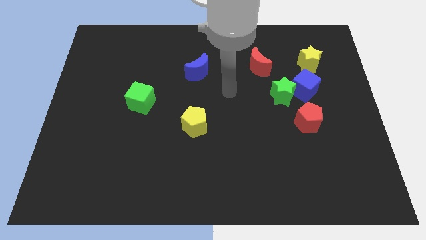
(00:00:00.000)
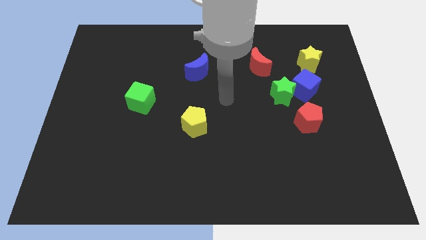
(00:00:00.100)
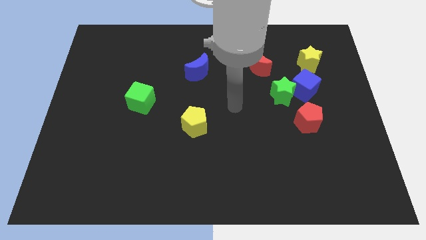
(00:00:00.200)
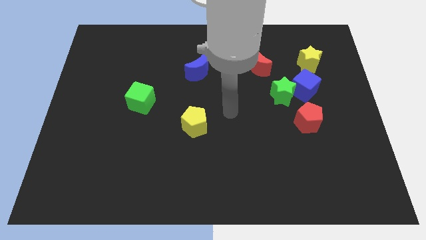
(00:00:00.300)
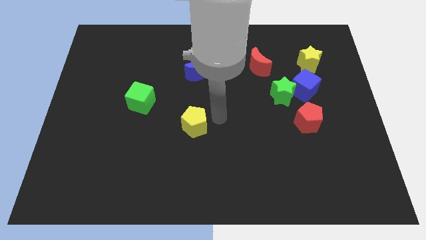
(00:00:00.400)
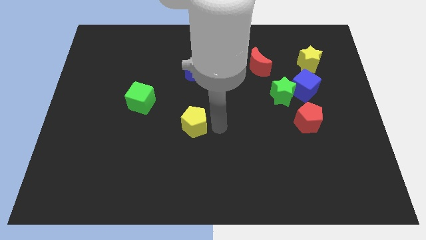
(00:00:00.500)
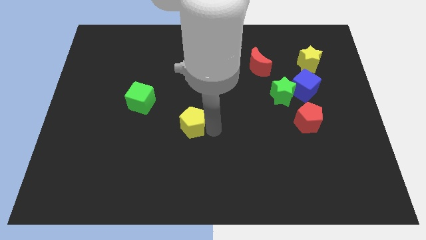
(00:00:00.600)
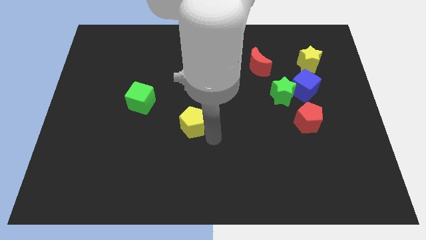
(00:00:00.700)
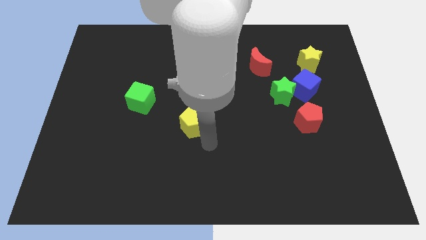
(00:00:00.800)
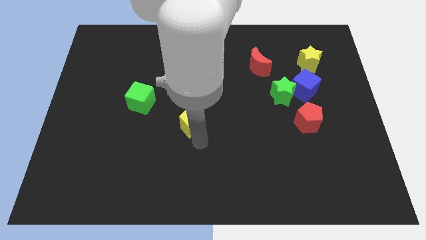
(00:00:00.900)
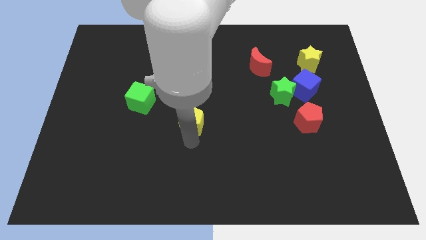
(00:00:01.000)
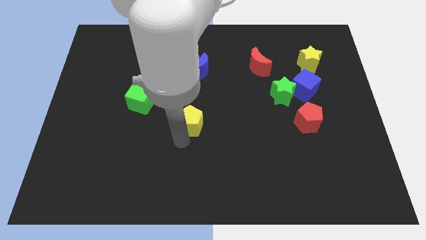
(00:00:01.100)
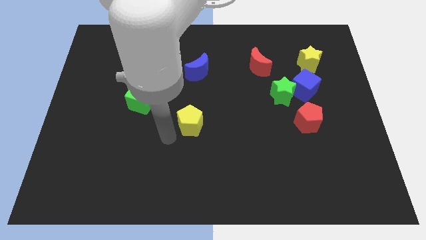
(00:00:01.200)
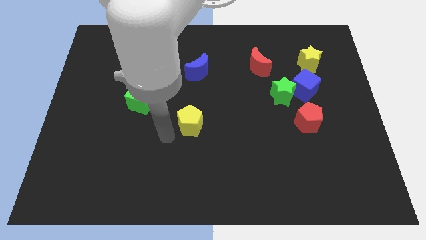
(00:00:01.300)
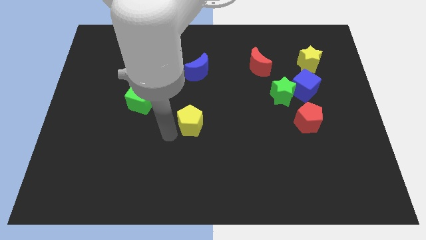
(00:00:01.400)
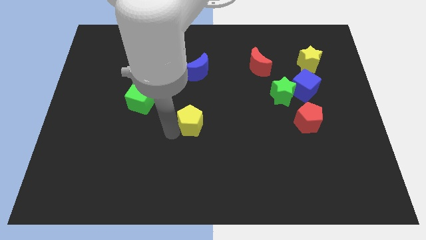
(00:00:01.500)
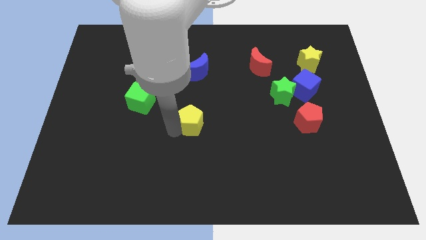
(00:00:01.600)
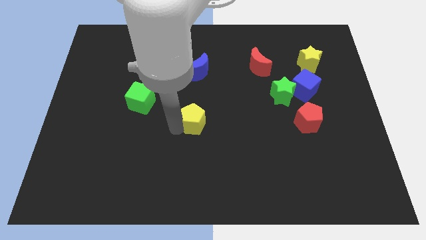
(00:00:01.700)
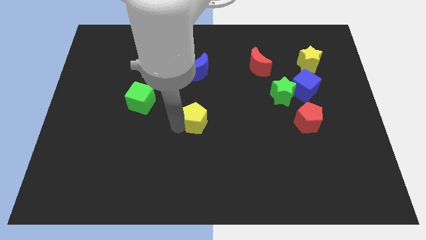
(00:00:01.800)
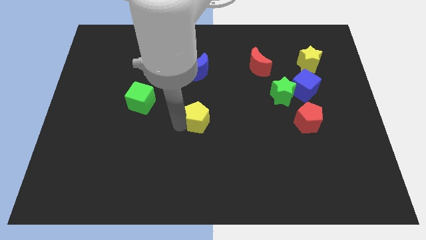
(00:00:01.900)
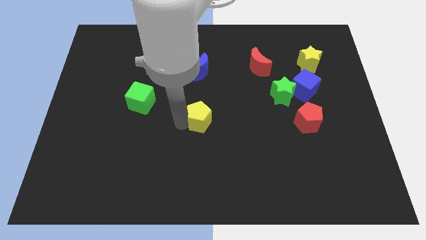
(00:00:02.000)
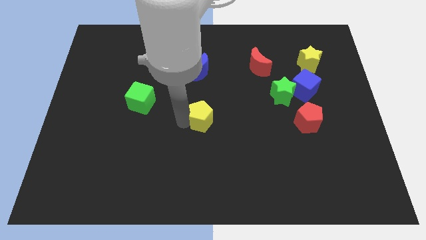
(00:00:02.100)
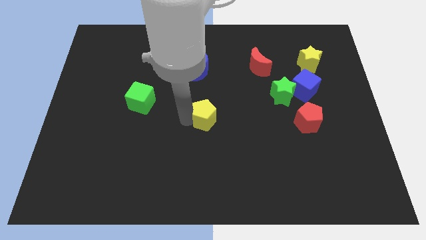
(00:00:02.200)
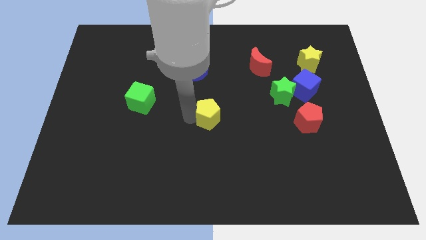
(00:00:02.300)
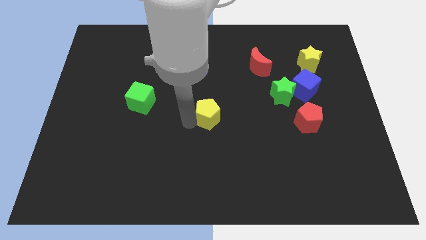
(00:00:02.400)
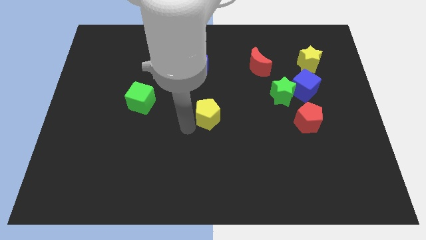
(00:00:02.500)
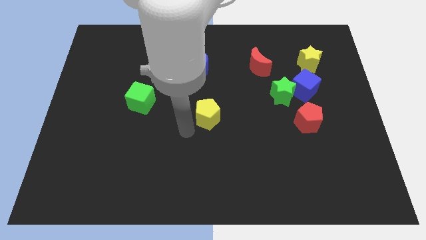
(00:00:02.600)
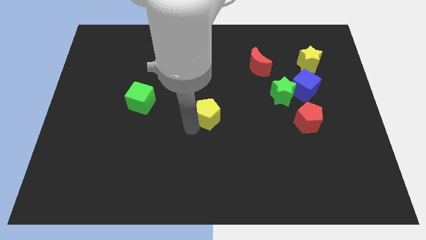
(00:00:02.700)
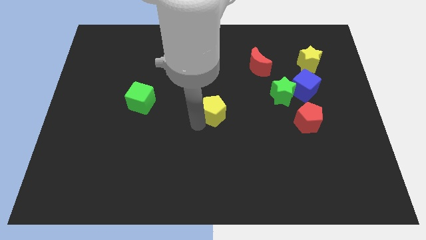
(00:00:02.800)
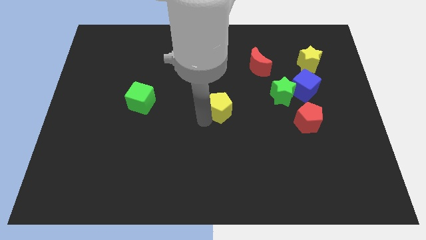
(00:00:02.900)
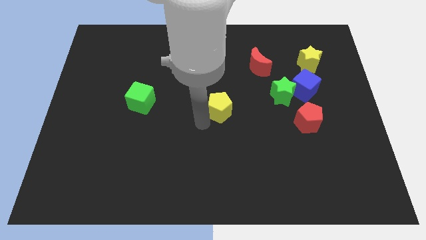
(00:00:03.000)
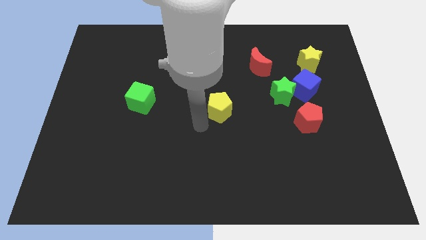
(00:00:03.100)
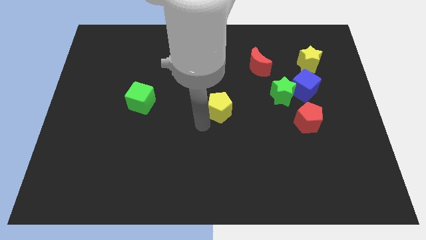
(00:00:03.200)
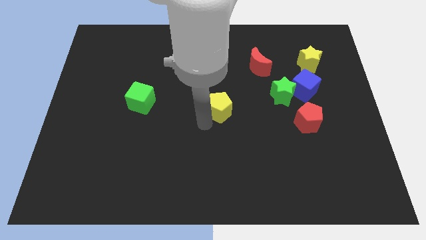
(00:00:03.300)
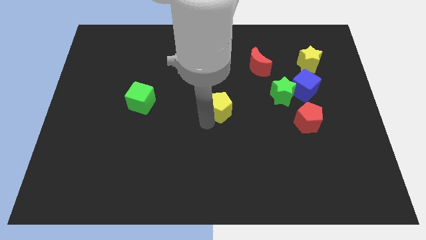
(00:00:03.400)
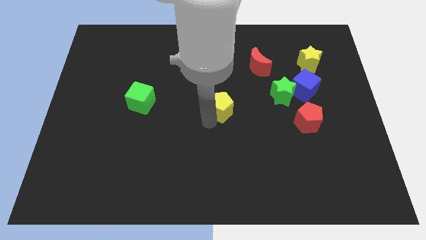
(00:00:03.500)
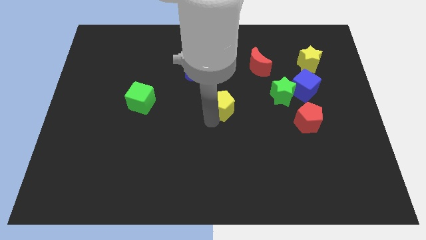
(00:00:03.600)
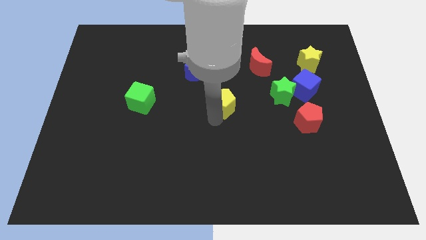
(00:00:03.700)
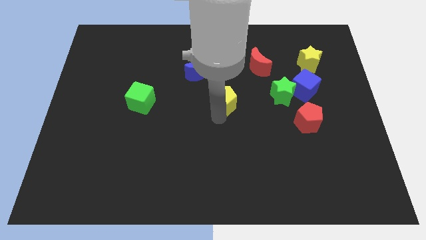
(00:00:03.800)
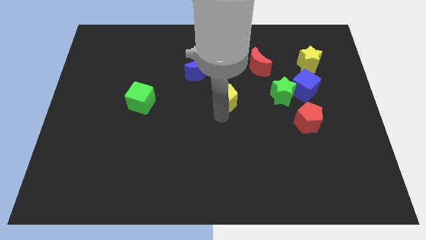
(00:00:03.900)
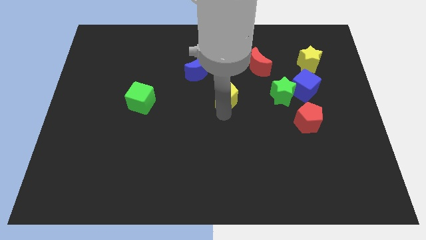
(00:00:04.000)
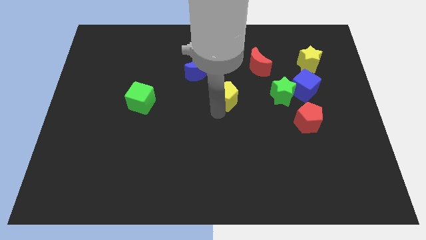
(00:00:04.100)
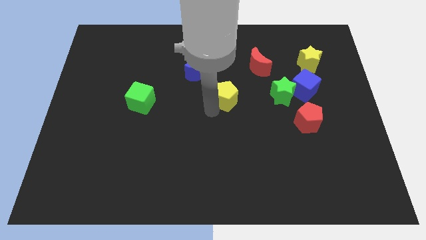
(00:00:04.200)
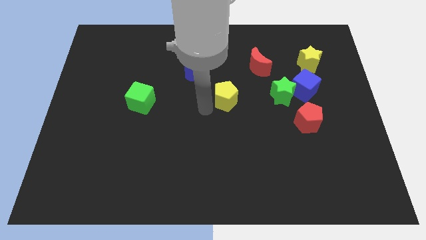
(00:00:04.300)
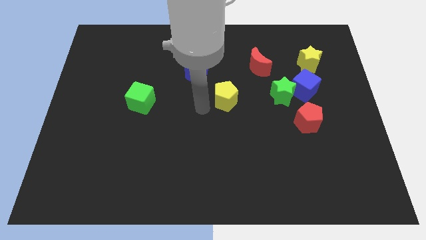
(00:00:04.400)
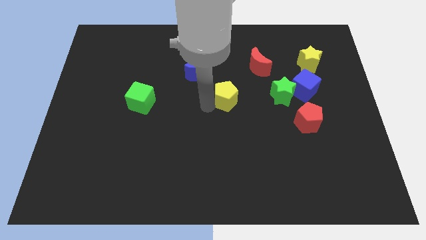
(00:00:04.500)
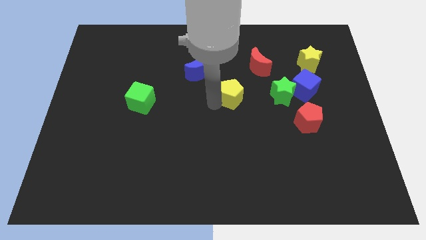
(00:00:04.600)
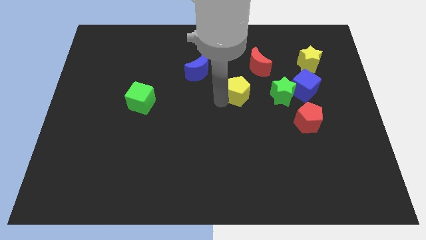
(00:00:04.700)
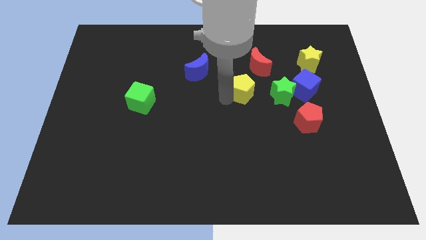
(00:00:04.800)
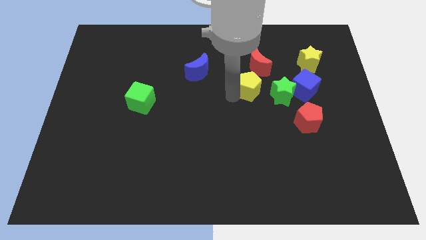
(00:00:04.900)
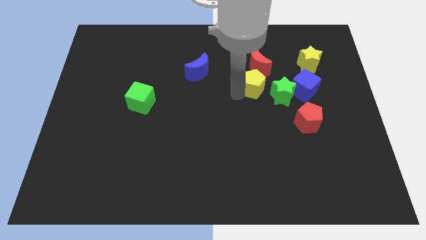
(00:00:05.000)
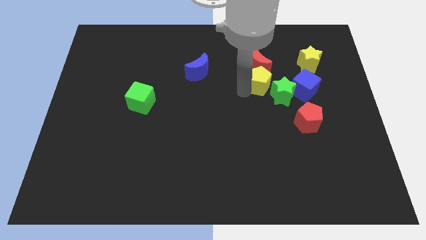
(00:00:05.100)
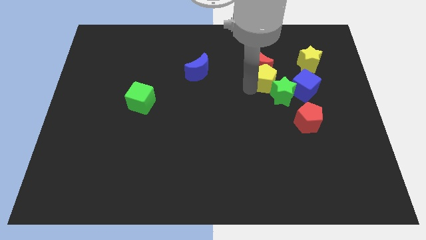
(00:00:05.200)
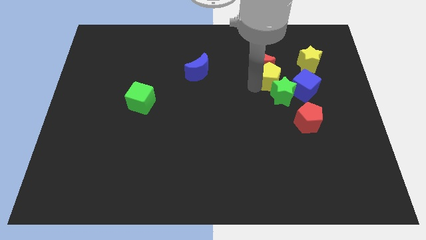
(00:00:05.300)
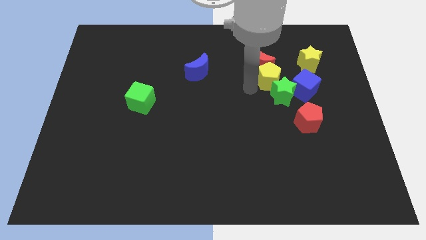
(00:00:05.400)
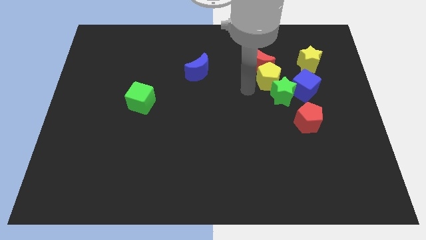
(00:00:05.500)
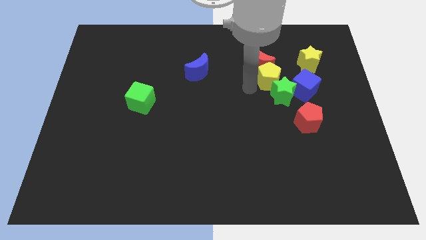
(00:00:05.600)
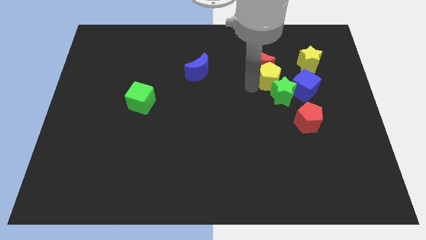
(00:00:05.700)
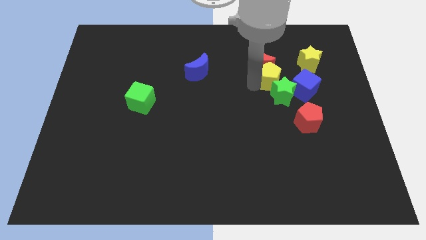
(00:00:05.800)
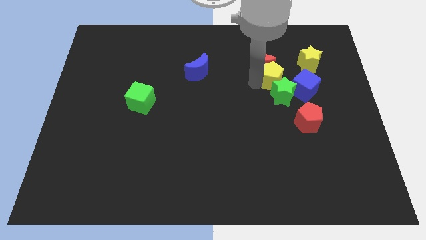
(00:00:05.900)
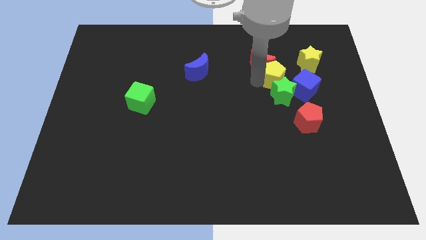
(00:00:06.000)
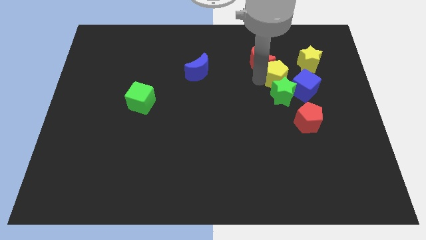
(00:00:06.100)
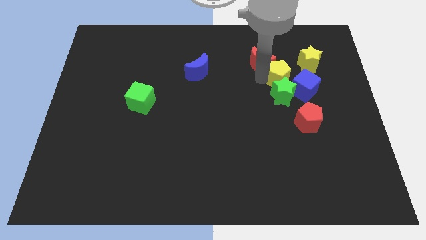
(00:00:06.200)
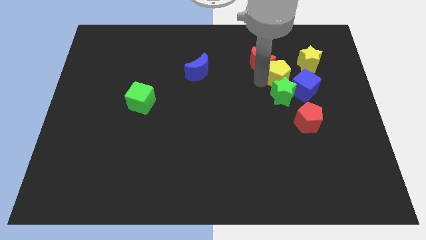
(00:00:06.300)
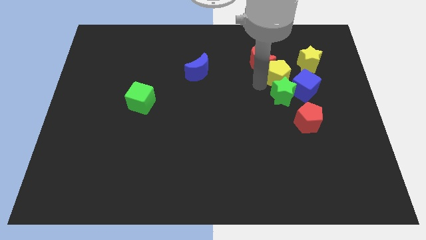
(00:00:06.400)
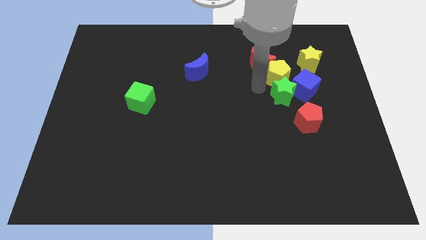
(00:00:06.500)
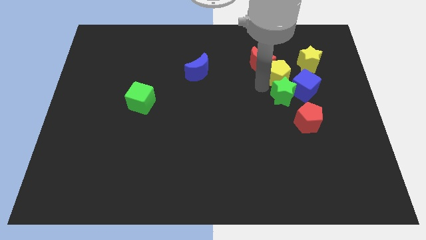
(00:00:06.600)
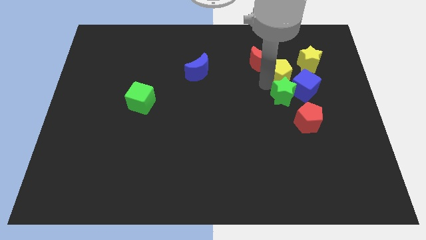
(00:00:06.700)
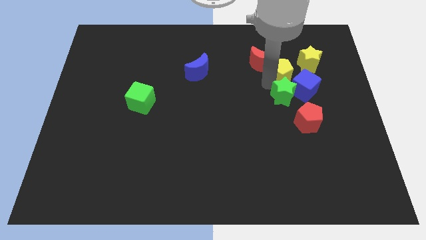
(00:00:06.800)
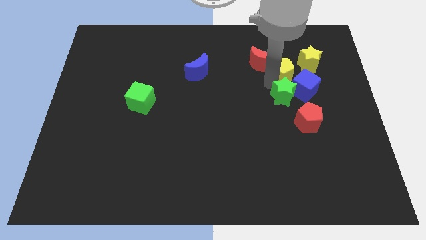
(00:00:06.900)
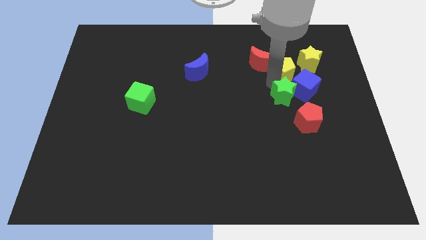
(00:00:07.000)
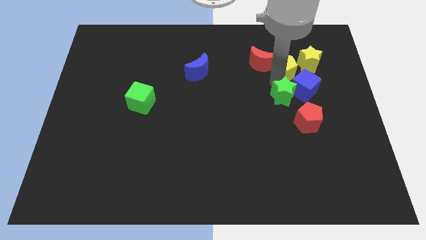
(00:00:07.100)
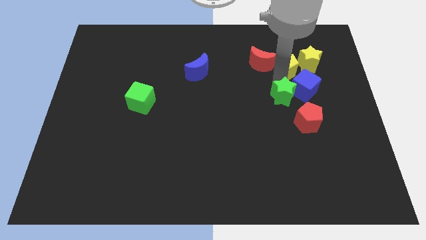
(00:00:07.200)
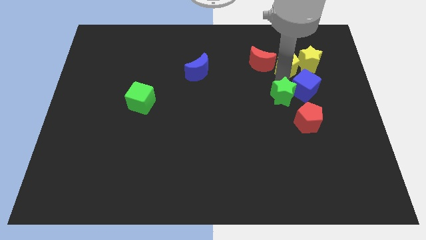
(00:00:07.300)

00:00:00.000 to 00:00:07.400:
move the yellow pentagon to the yellow star
